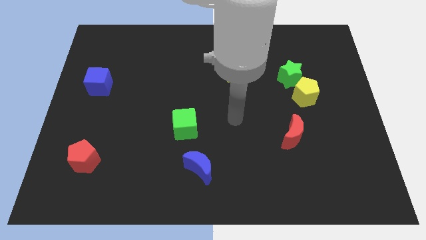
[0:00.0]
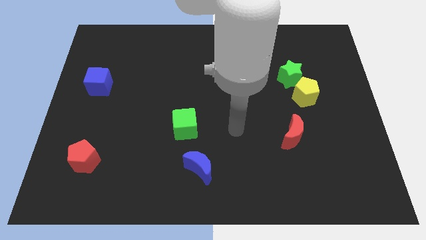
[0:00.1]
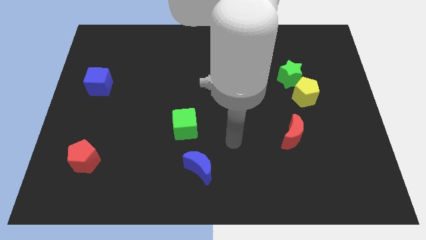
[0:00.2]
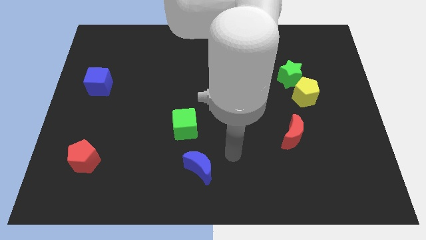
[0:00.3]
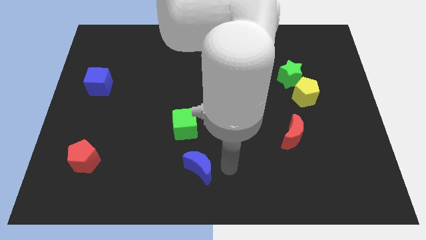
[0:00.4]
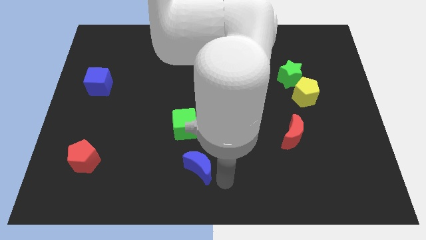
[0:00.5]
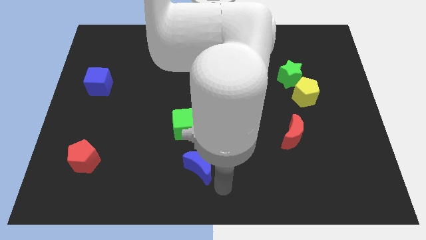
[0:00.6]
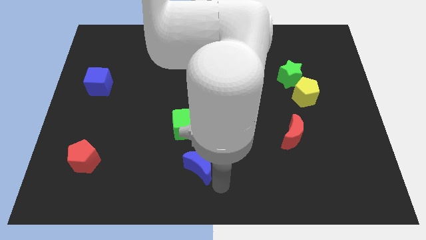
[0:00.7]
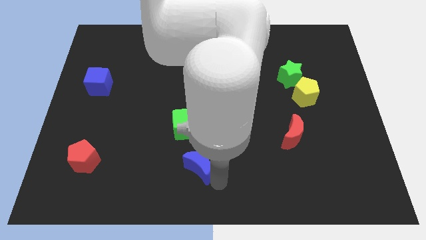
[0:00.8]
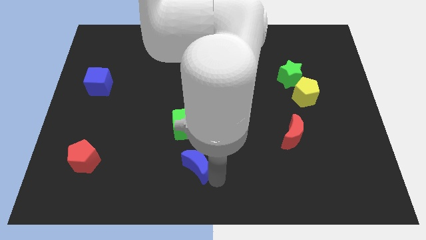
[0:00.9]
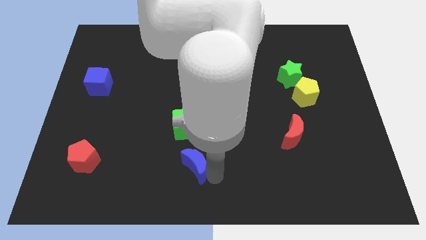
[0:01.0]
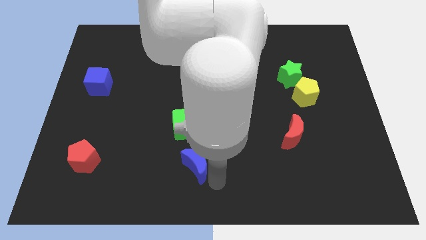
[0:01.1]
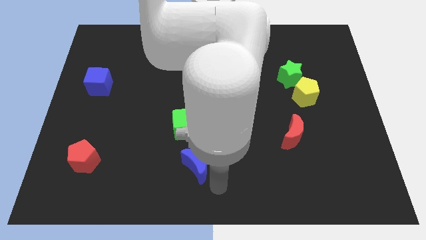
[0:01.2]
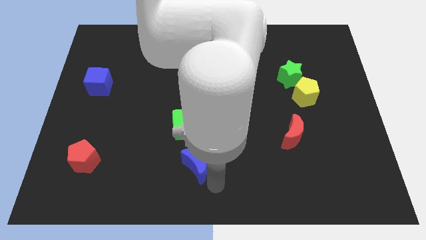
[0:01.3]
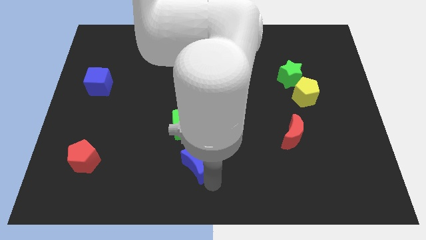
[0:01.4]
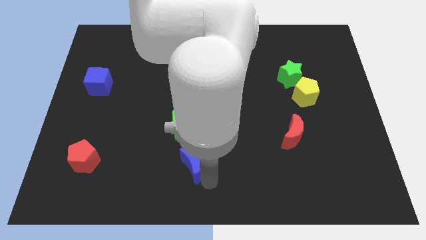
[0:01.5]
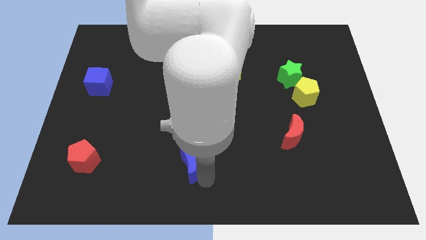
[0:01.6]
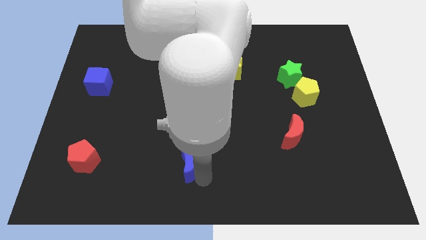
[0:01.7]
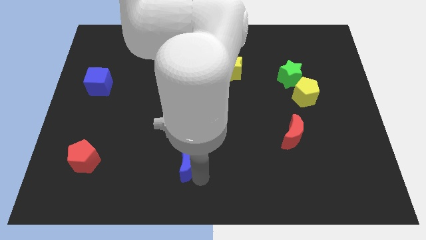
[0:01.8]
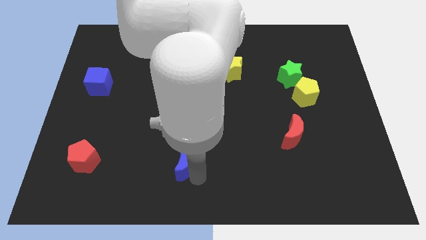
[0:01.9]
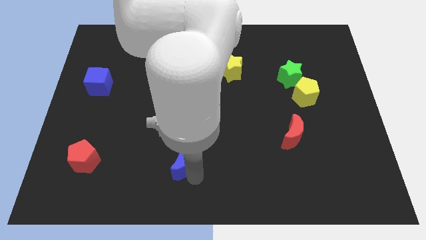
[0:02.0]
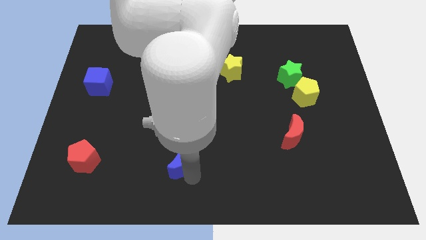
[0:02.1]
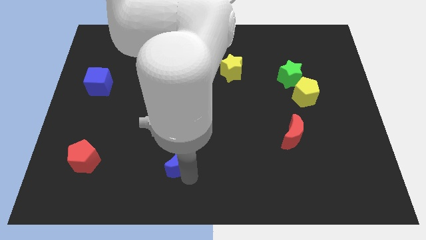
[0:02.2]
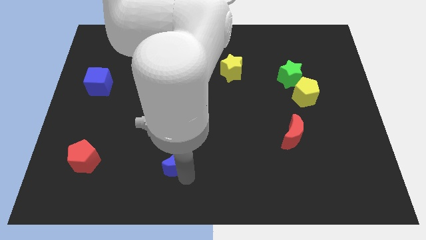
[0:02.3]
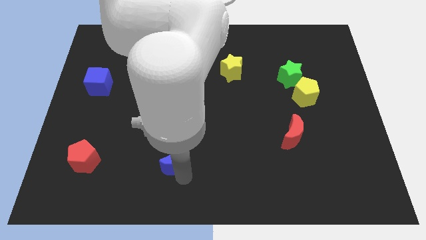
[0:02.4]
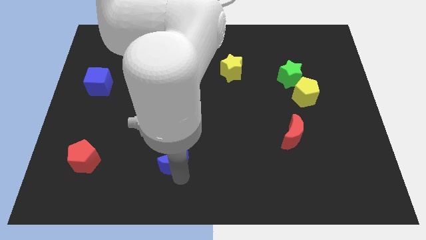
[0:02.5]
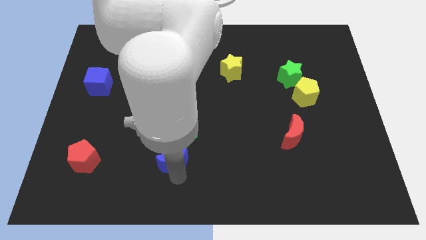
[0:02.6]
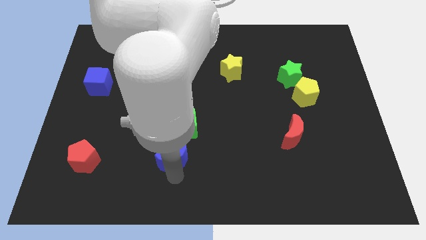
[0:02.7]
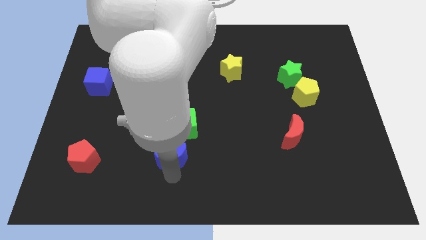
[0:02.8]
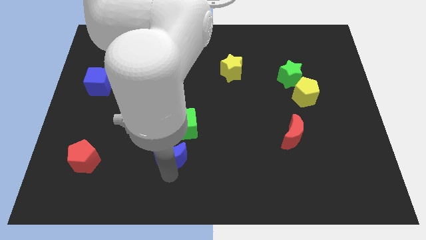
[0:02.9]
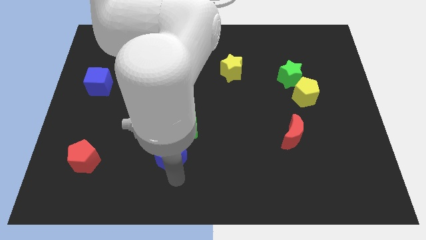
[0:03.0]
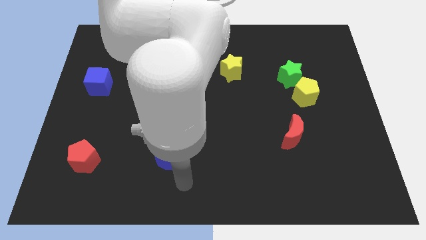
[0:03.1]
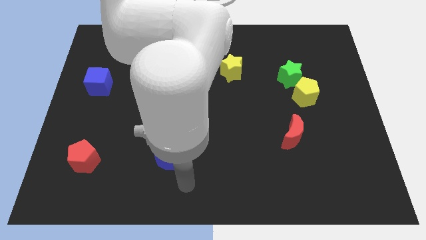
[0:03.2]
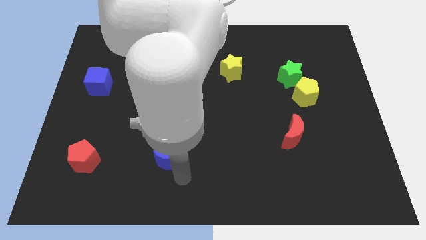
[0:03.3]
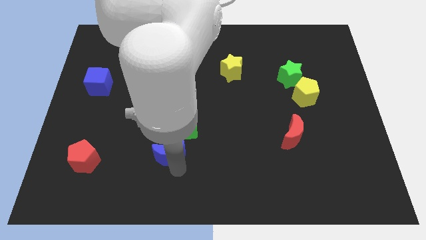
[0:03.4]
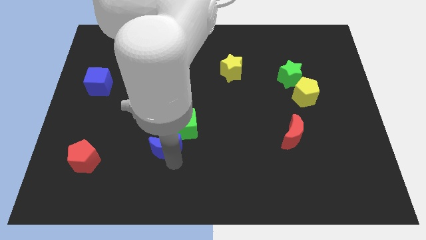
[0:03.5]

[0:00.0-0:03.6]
slightly slide the blue moon upwards and then to the left

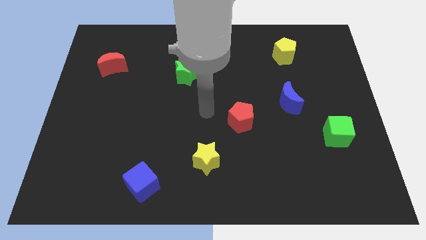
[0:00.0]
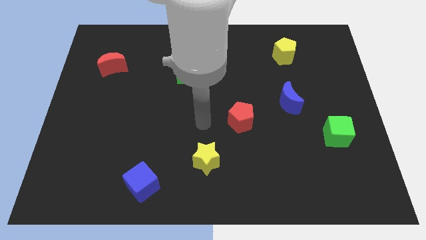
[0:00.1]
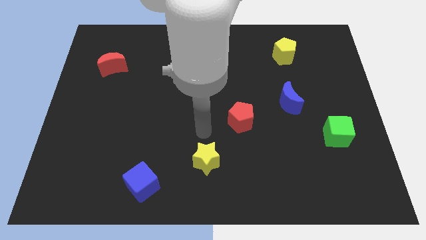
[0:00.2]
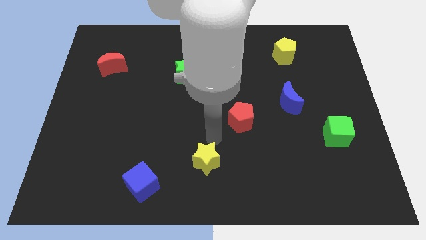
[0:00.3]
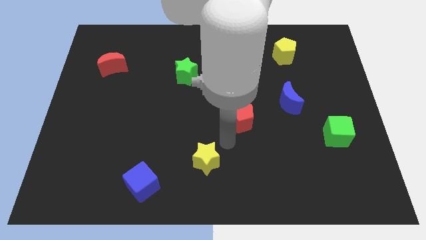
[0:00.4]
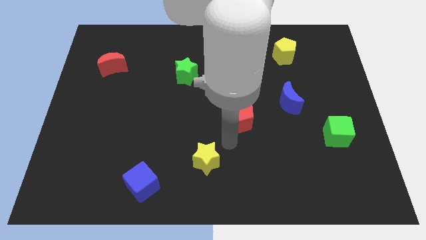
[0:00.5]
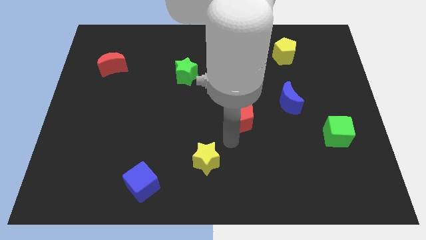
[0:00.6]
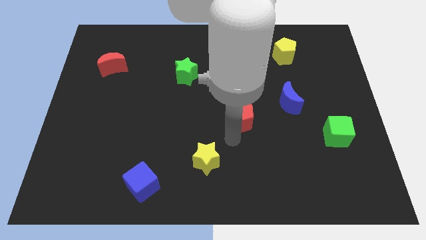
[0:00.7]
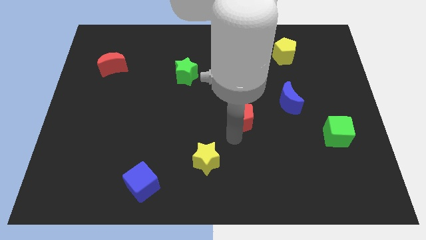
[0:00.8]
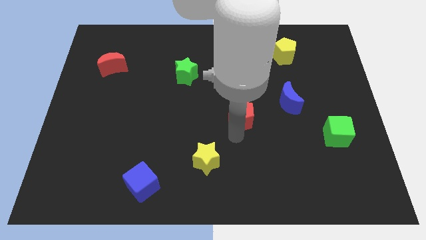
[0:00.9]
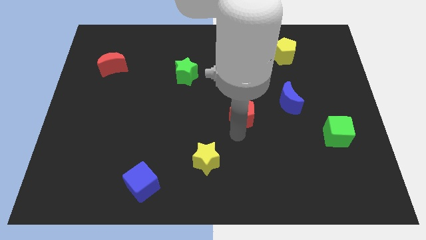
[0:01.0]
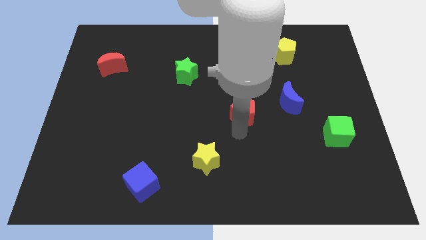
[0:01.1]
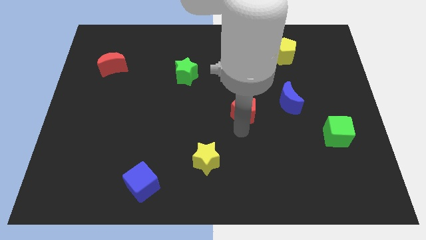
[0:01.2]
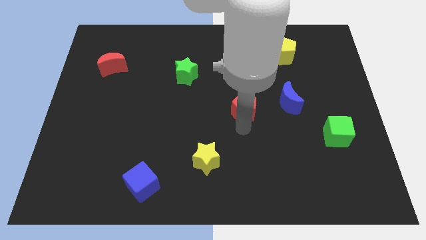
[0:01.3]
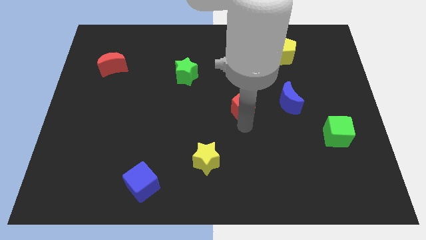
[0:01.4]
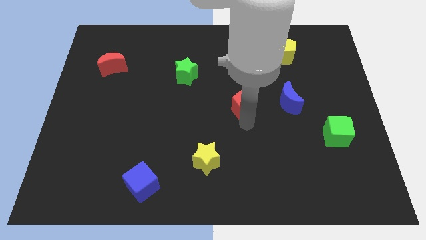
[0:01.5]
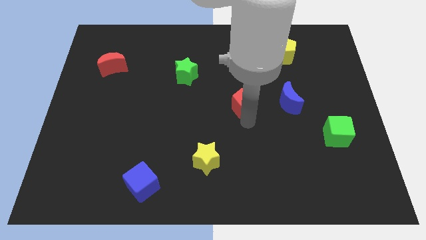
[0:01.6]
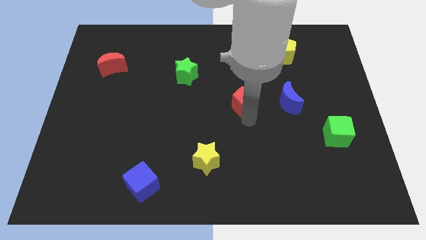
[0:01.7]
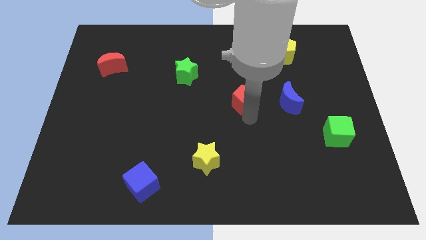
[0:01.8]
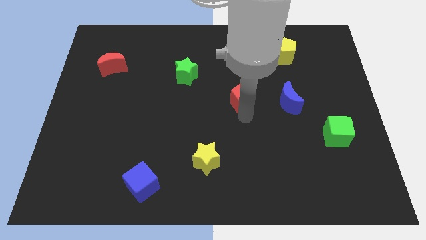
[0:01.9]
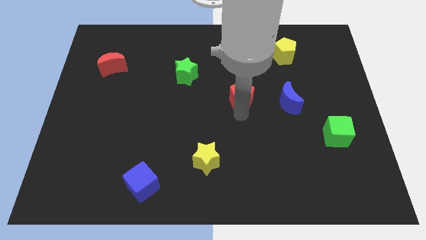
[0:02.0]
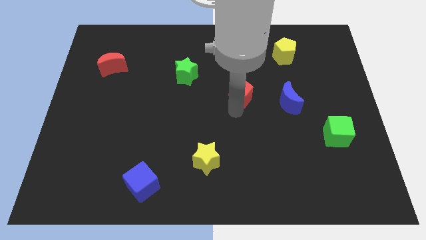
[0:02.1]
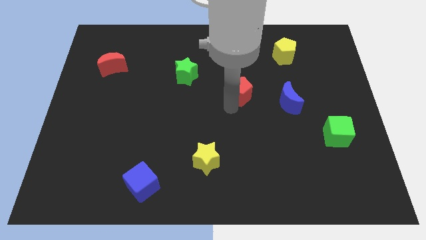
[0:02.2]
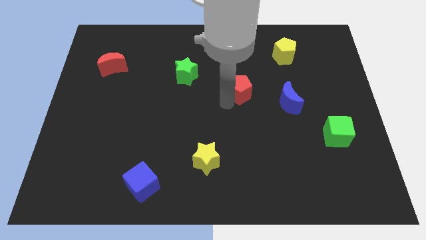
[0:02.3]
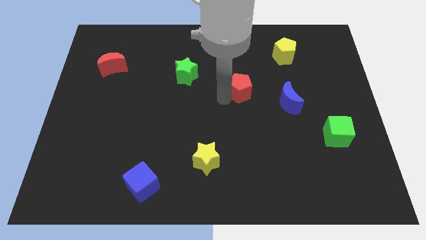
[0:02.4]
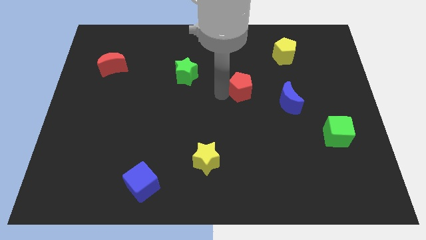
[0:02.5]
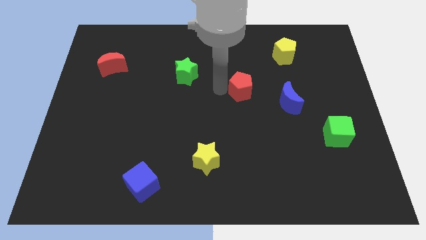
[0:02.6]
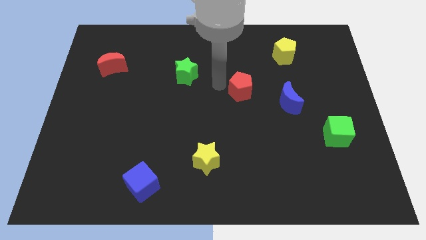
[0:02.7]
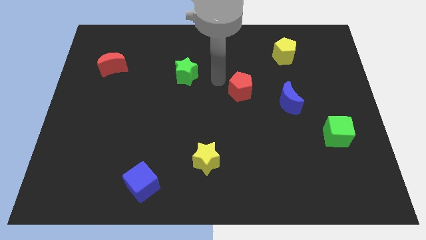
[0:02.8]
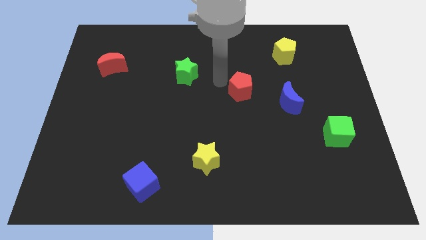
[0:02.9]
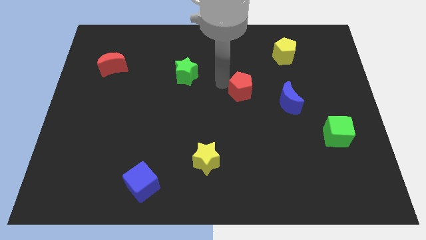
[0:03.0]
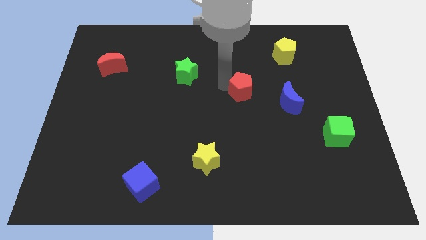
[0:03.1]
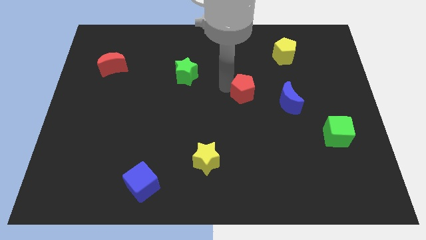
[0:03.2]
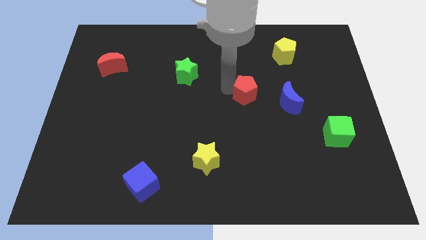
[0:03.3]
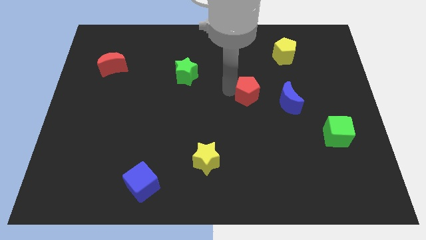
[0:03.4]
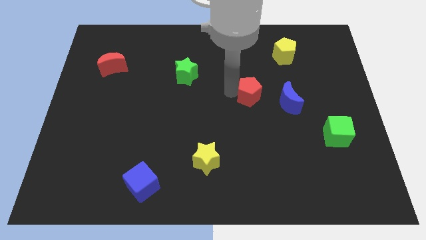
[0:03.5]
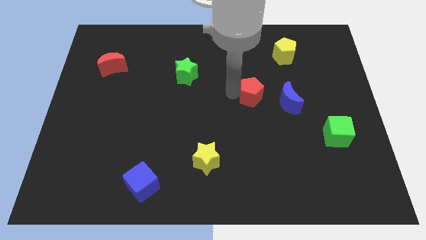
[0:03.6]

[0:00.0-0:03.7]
move the red pentagon a bit up and right

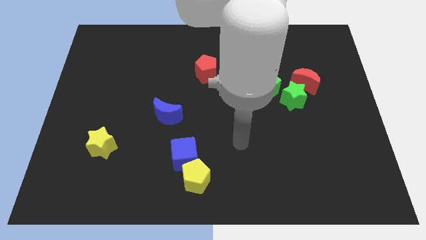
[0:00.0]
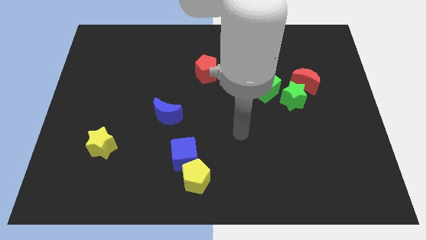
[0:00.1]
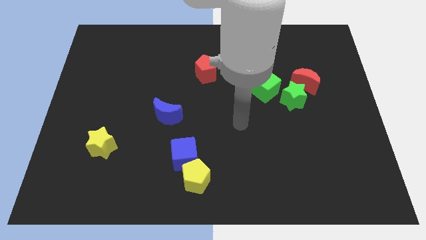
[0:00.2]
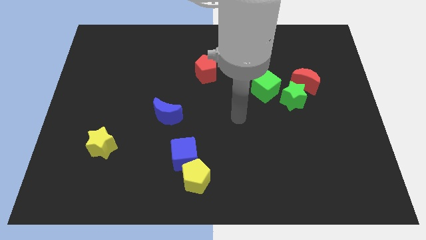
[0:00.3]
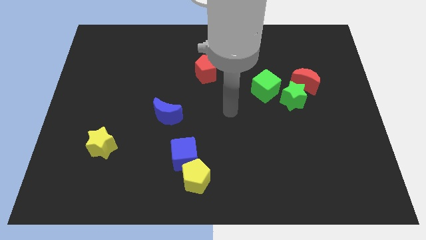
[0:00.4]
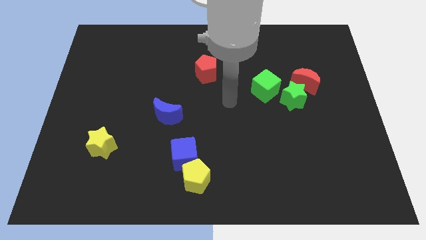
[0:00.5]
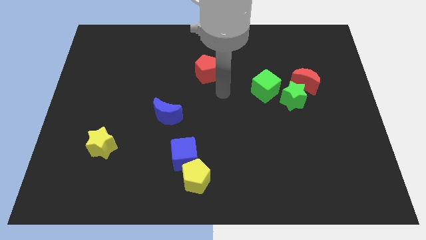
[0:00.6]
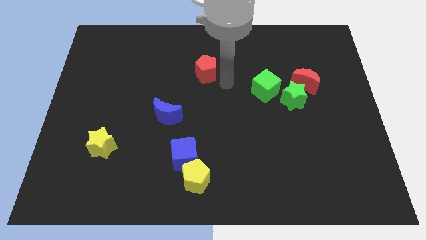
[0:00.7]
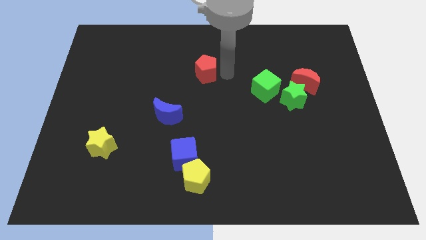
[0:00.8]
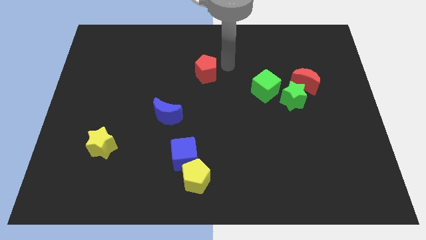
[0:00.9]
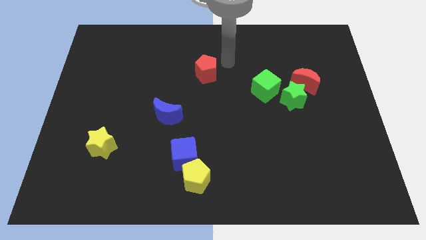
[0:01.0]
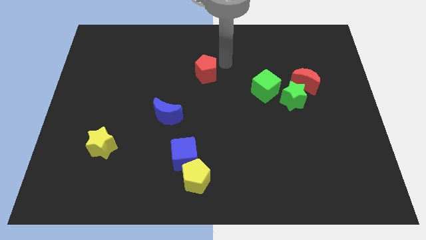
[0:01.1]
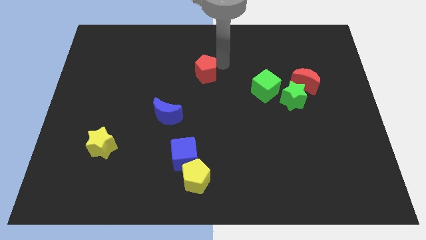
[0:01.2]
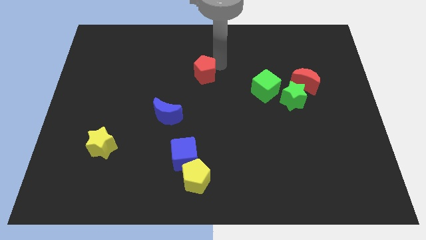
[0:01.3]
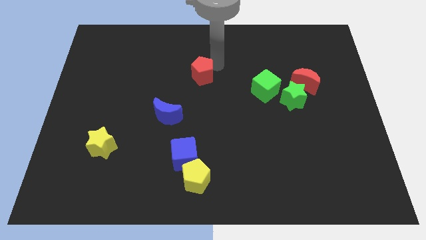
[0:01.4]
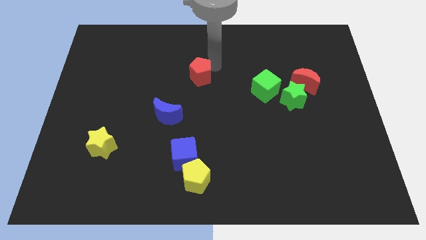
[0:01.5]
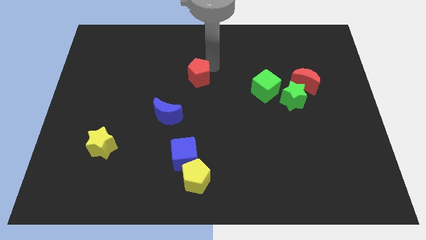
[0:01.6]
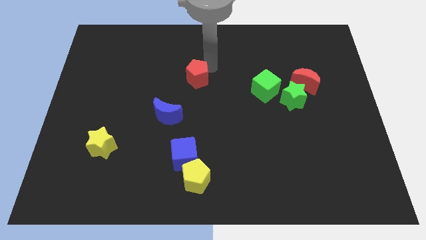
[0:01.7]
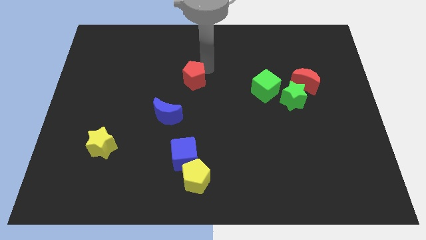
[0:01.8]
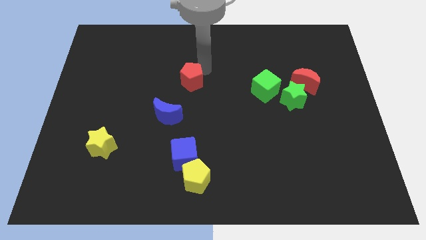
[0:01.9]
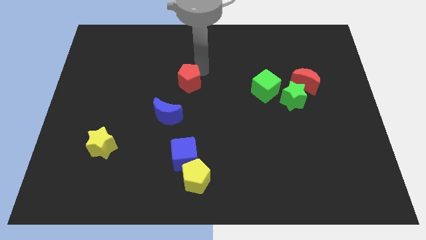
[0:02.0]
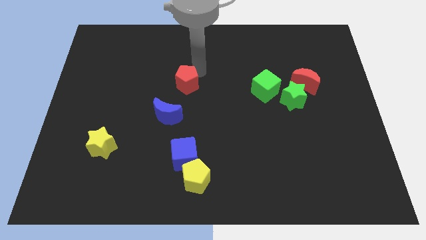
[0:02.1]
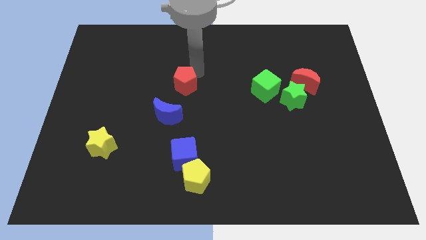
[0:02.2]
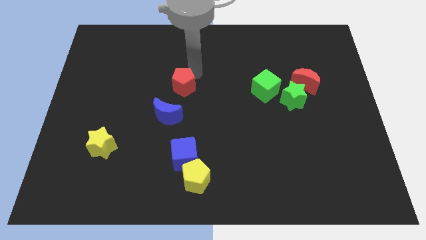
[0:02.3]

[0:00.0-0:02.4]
slightly move the red pentagon down and left
